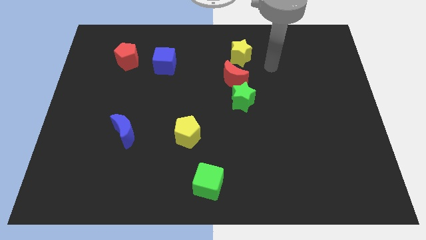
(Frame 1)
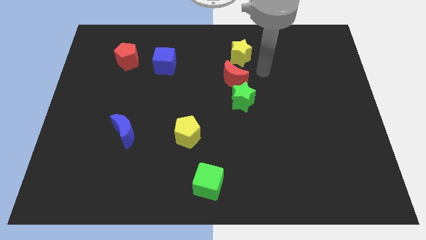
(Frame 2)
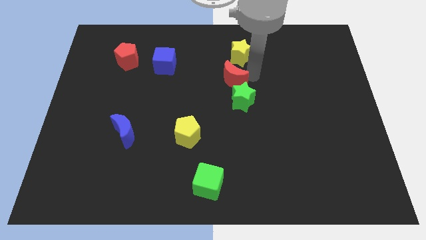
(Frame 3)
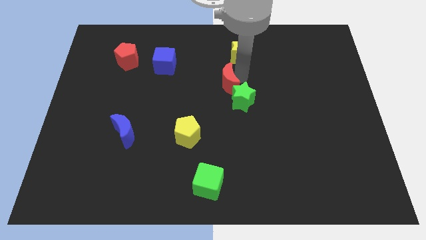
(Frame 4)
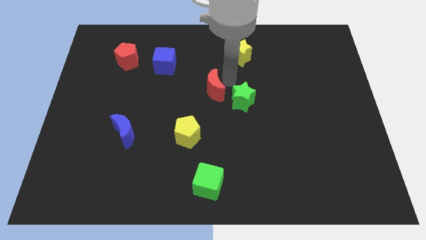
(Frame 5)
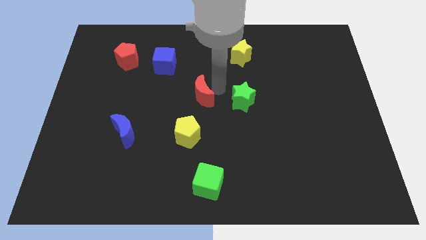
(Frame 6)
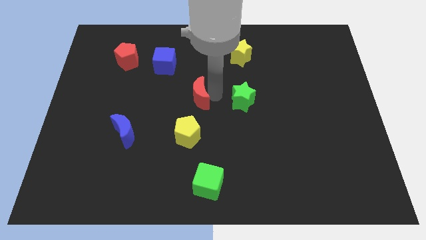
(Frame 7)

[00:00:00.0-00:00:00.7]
pull the green star apart from the red moon

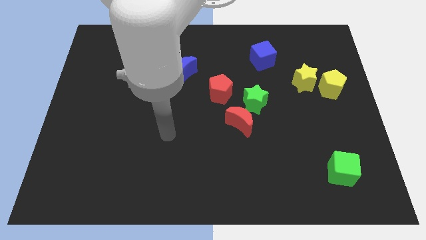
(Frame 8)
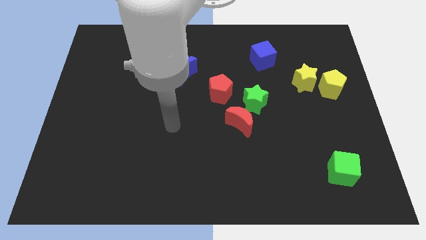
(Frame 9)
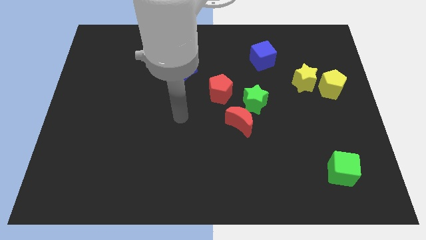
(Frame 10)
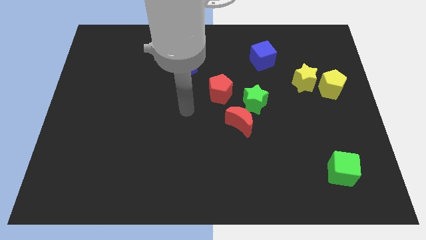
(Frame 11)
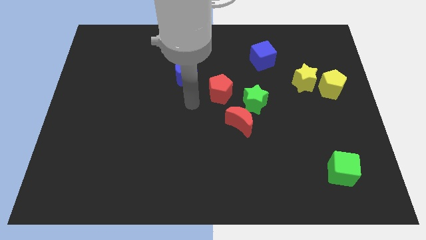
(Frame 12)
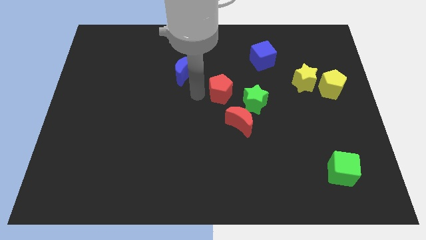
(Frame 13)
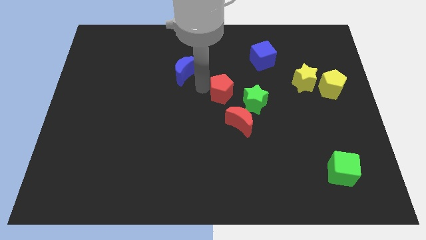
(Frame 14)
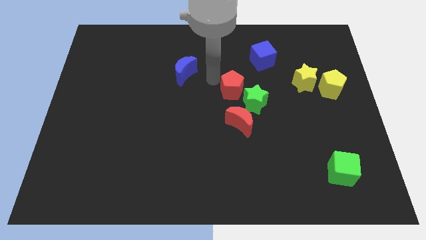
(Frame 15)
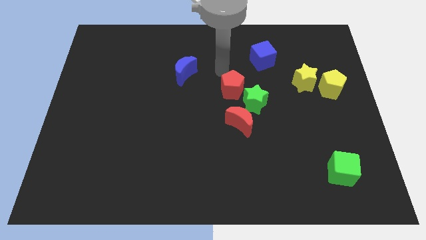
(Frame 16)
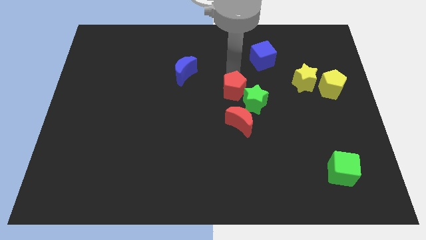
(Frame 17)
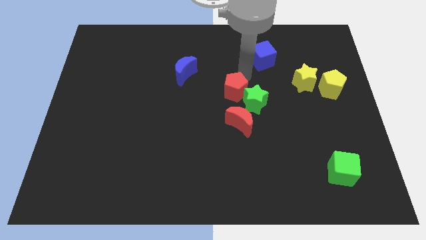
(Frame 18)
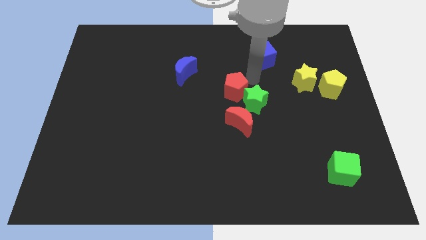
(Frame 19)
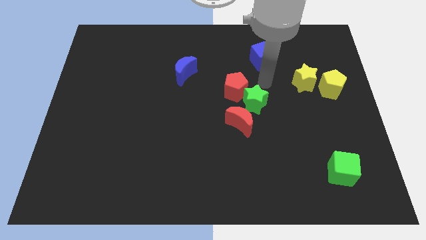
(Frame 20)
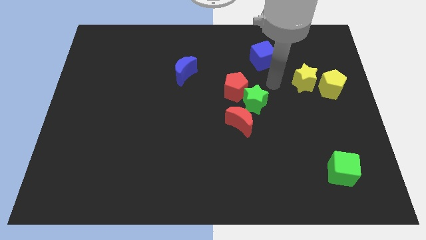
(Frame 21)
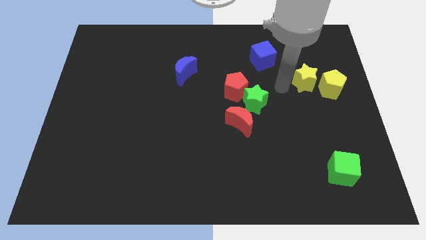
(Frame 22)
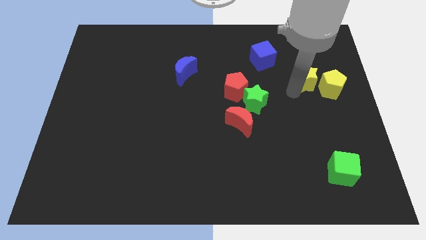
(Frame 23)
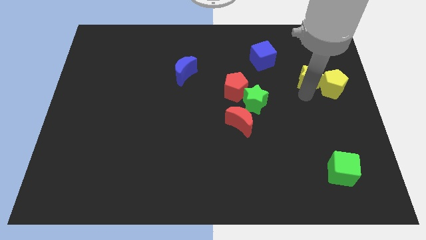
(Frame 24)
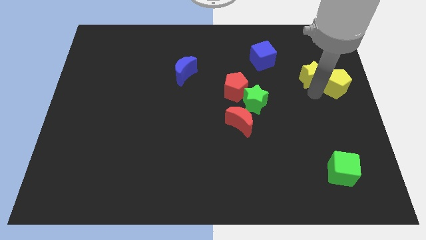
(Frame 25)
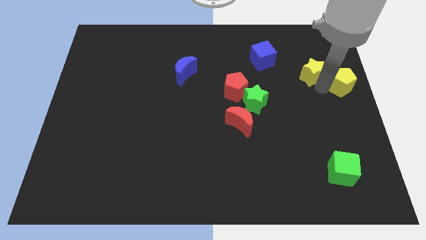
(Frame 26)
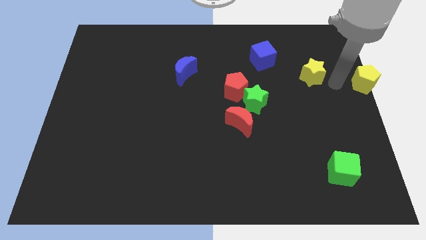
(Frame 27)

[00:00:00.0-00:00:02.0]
pull the yellow star apart from the yellow pentagon

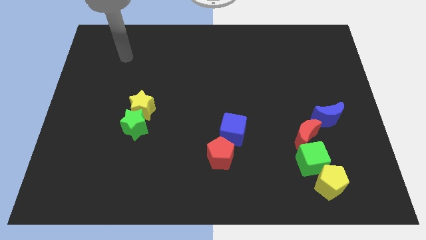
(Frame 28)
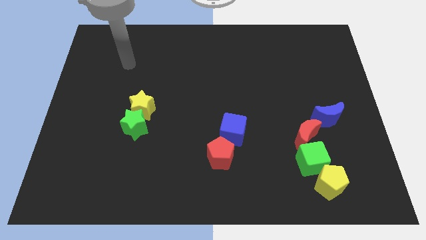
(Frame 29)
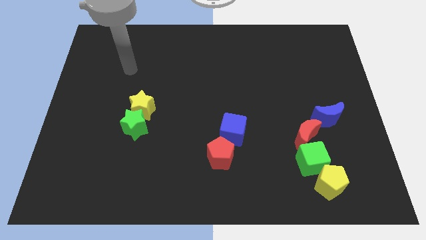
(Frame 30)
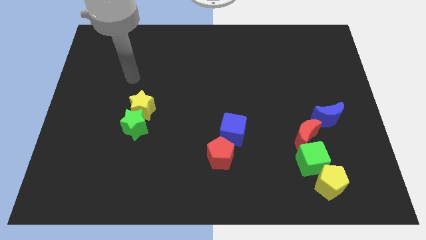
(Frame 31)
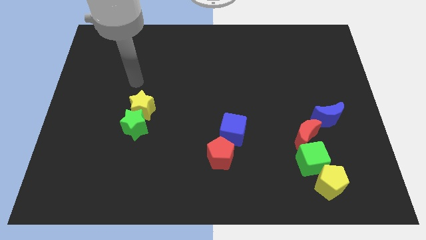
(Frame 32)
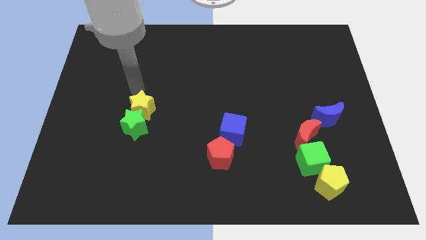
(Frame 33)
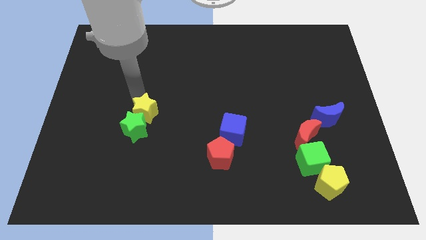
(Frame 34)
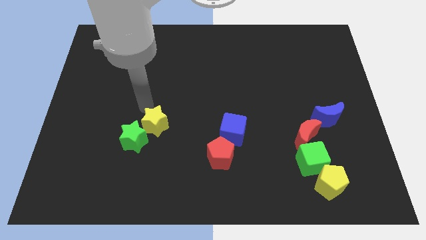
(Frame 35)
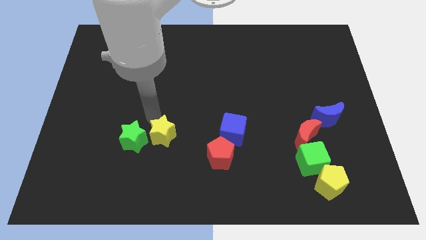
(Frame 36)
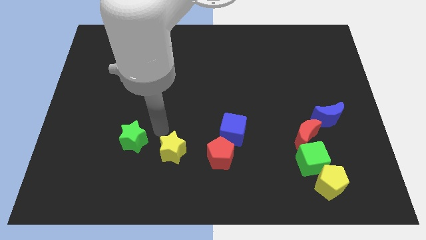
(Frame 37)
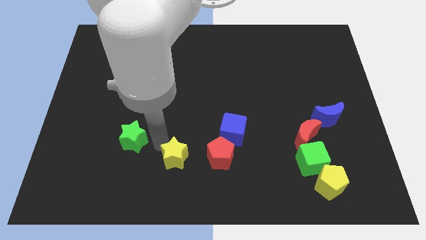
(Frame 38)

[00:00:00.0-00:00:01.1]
pull the green star apart from the yellow star

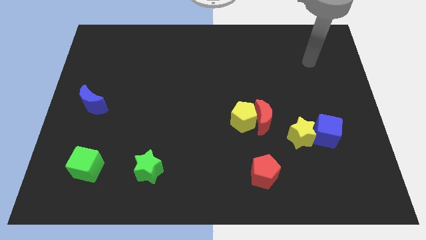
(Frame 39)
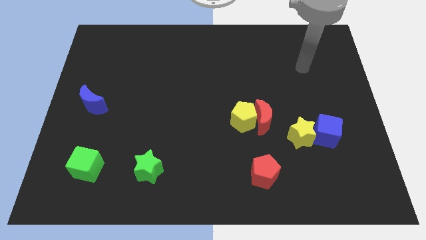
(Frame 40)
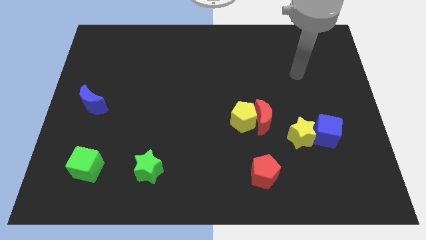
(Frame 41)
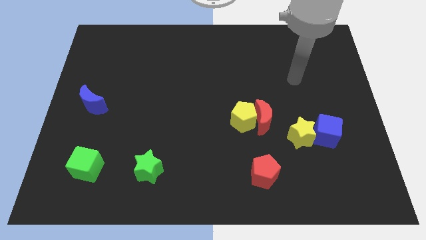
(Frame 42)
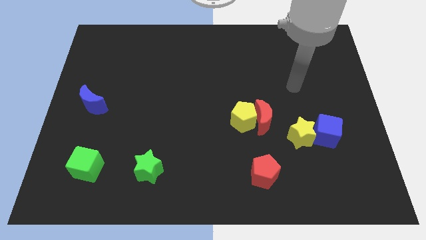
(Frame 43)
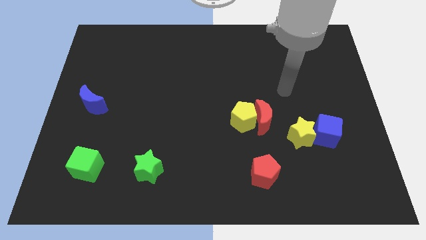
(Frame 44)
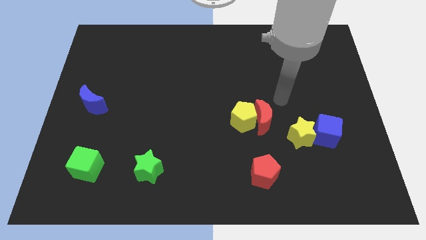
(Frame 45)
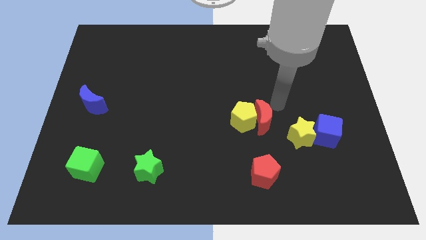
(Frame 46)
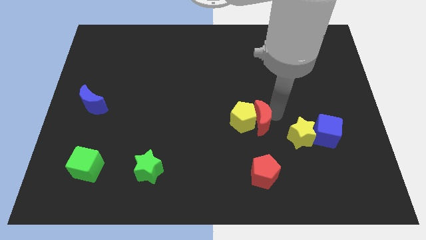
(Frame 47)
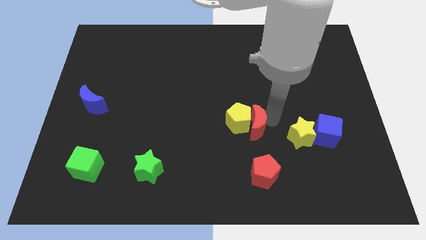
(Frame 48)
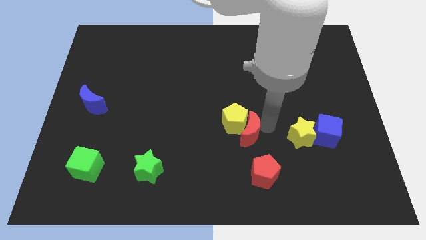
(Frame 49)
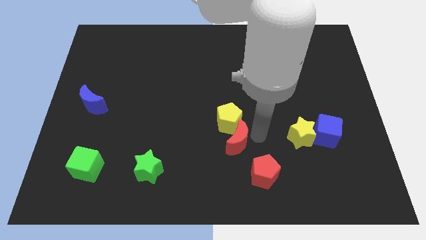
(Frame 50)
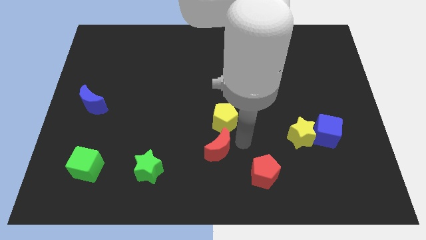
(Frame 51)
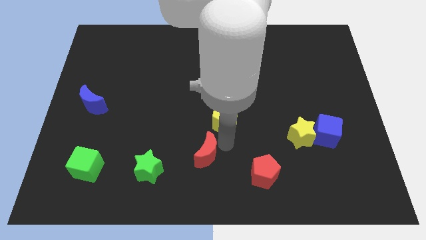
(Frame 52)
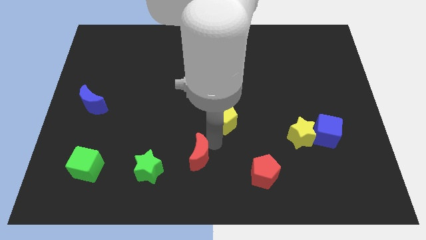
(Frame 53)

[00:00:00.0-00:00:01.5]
separate the yellow pentagon from the red moon

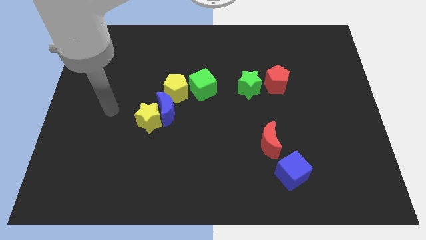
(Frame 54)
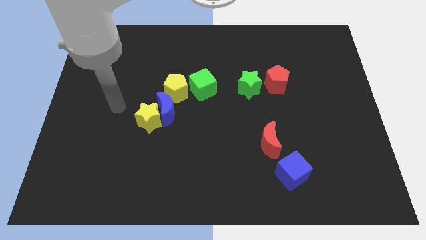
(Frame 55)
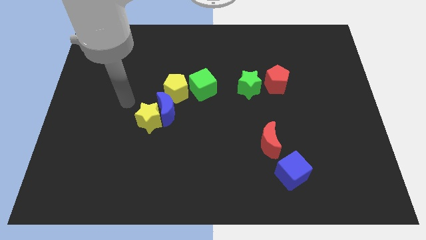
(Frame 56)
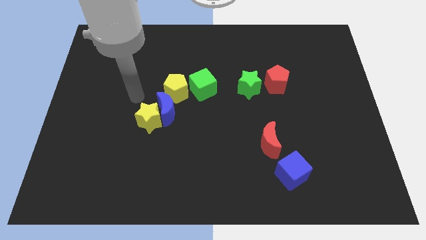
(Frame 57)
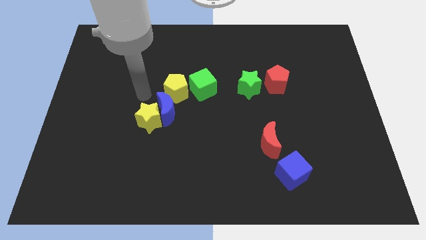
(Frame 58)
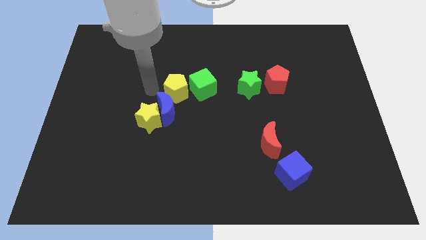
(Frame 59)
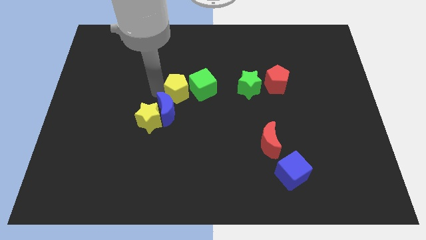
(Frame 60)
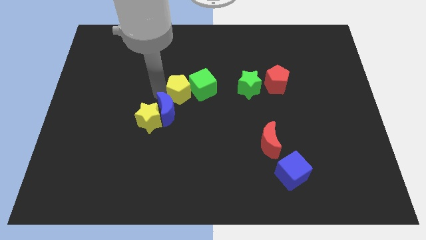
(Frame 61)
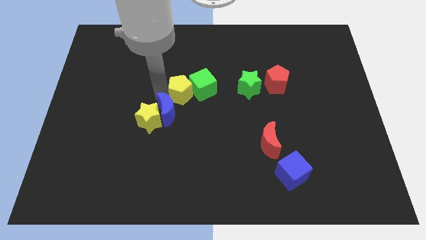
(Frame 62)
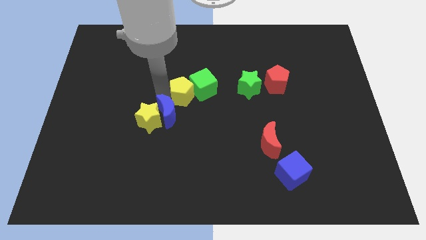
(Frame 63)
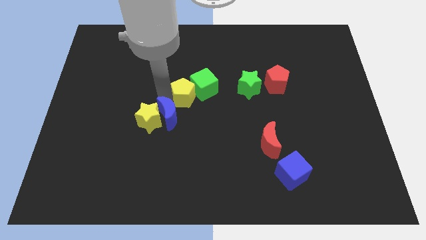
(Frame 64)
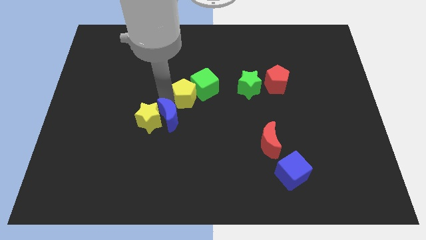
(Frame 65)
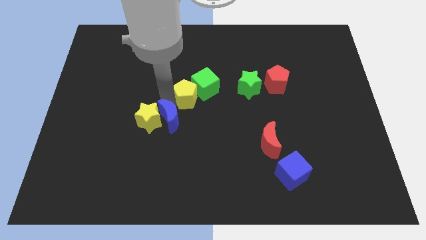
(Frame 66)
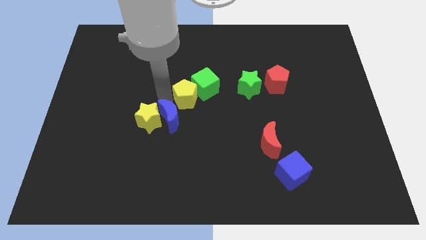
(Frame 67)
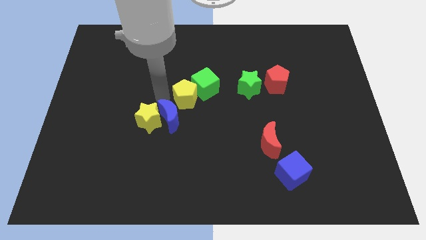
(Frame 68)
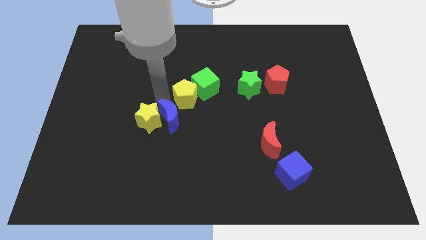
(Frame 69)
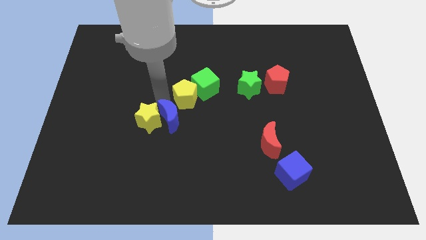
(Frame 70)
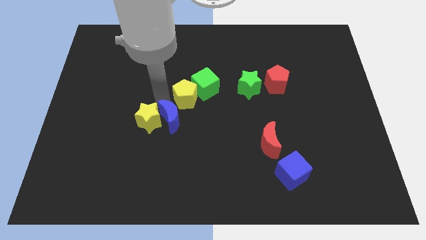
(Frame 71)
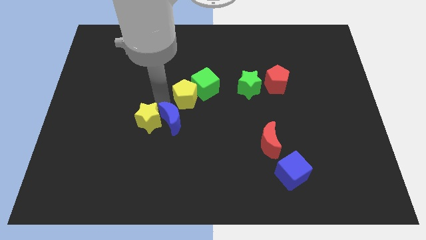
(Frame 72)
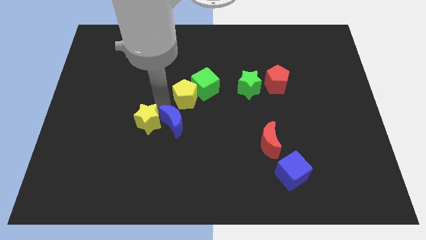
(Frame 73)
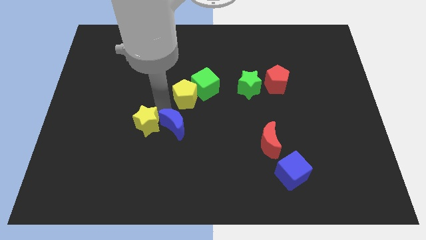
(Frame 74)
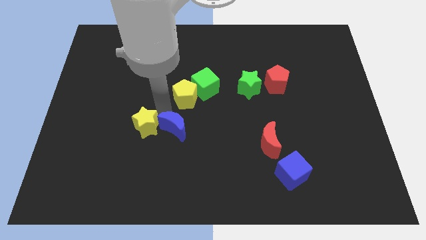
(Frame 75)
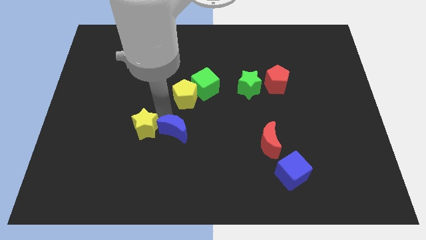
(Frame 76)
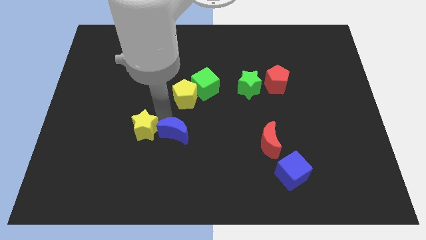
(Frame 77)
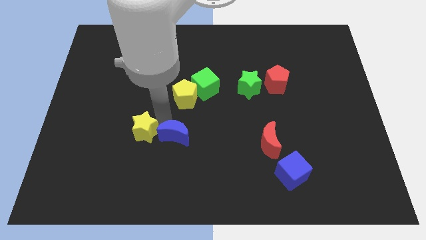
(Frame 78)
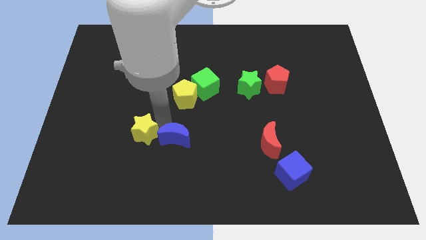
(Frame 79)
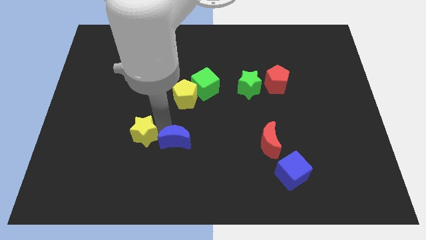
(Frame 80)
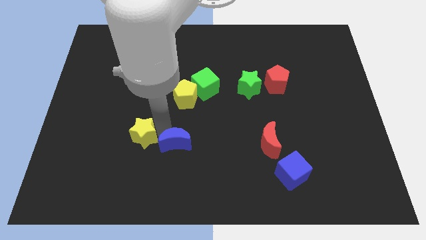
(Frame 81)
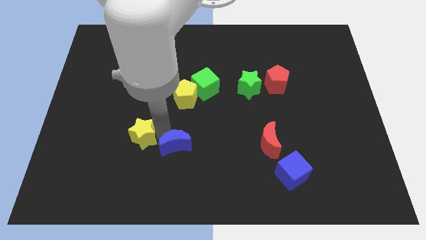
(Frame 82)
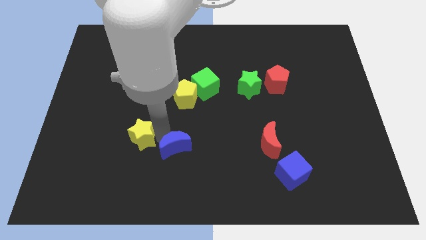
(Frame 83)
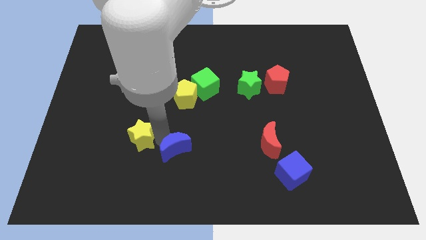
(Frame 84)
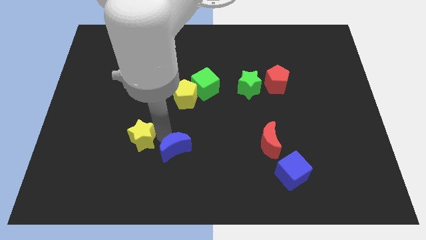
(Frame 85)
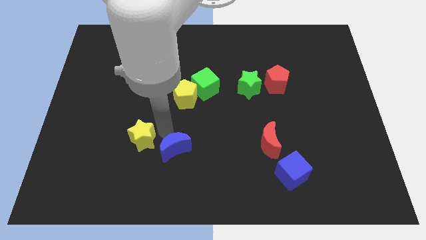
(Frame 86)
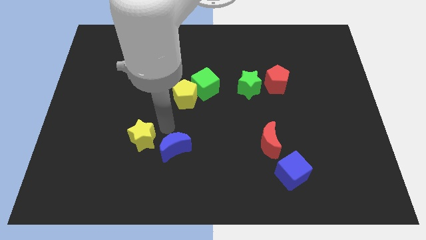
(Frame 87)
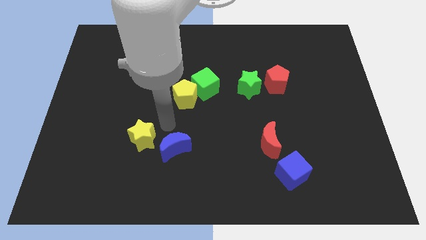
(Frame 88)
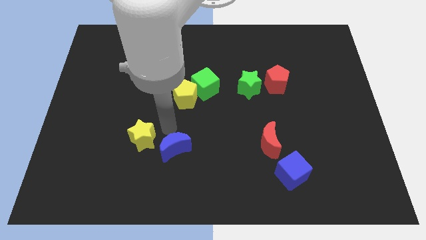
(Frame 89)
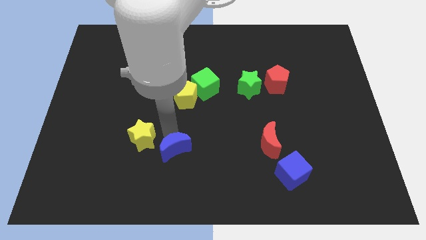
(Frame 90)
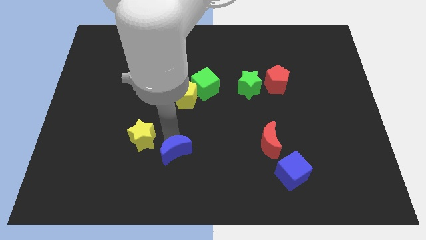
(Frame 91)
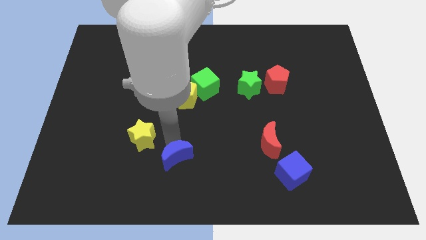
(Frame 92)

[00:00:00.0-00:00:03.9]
pull the blue moon apart from the yellow star and yellow pentagon
